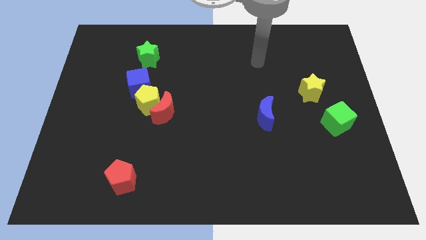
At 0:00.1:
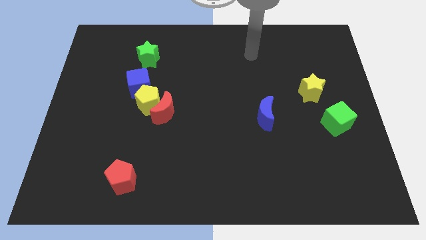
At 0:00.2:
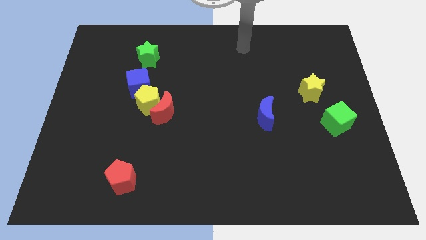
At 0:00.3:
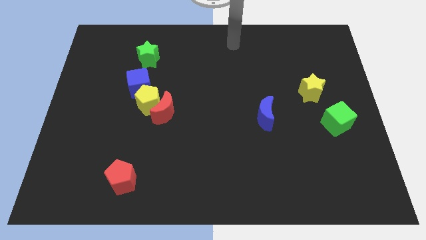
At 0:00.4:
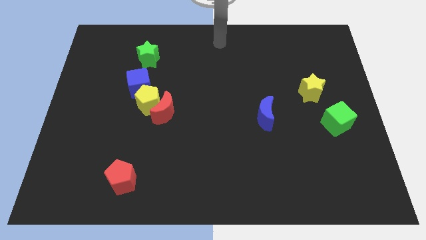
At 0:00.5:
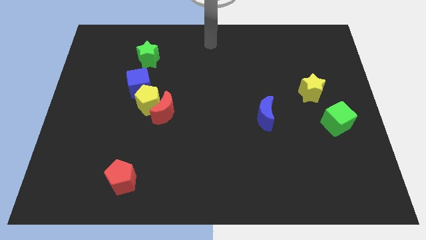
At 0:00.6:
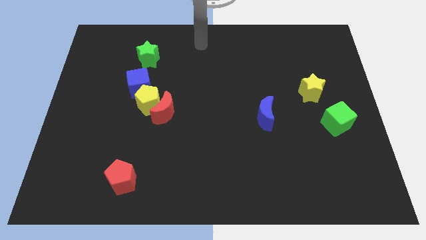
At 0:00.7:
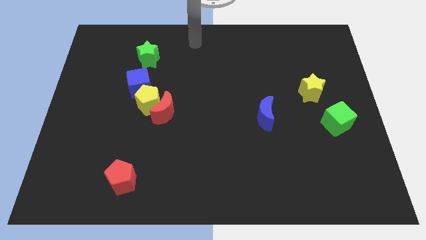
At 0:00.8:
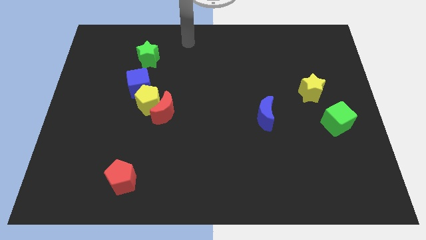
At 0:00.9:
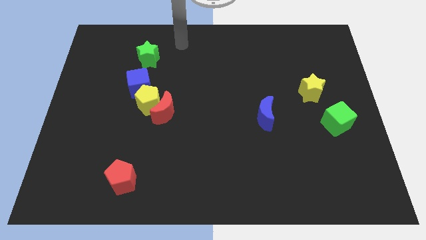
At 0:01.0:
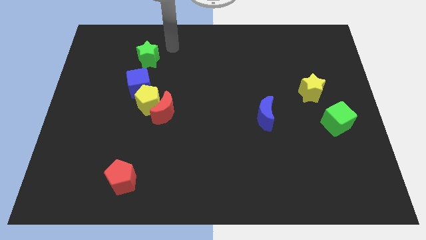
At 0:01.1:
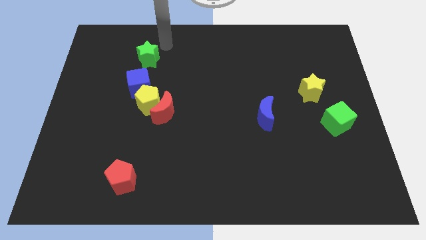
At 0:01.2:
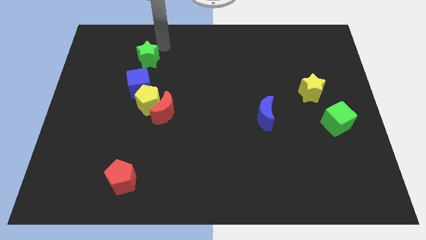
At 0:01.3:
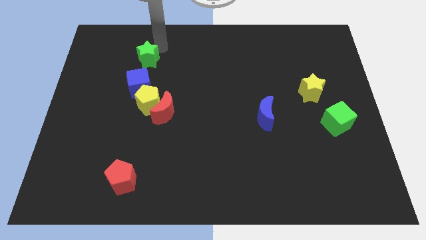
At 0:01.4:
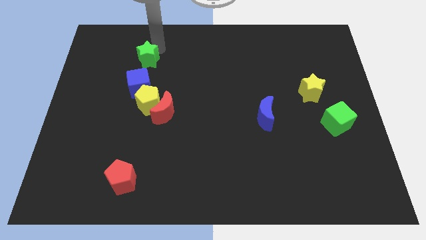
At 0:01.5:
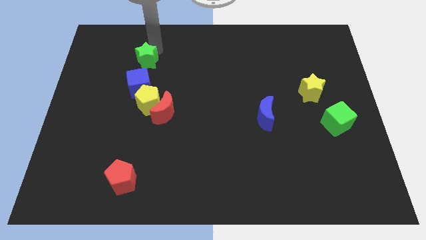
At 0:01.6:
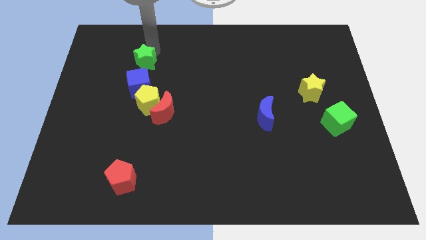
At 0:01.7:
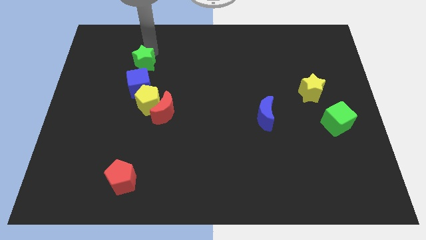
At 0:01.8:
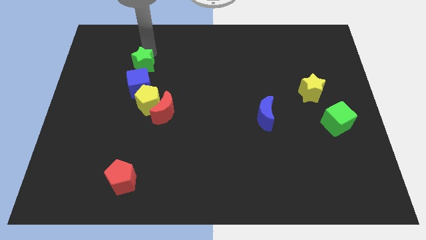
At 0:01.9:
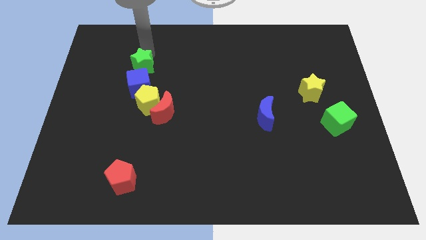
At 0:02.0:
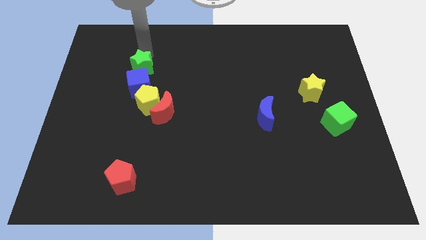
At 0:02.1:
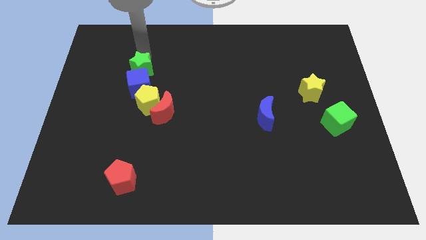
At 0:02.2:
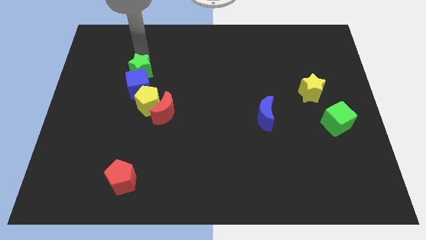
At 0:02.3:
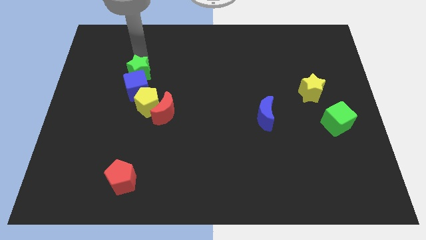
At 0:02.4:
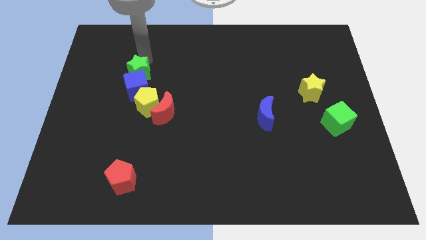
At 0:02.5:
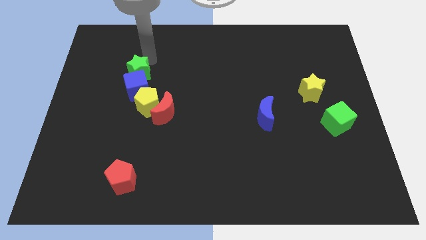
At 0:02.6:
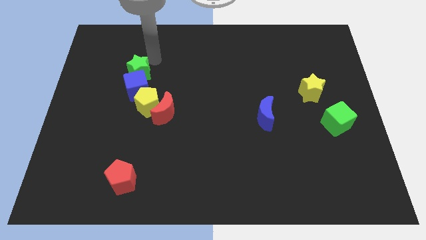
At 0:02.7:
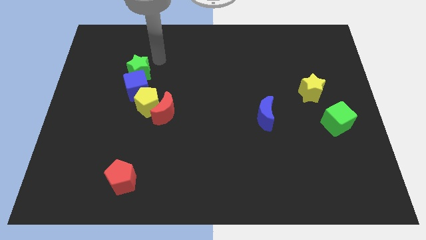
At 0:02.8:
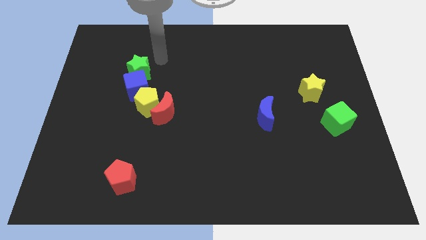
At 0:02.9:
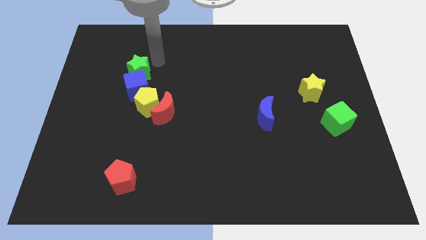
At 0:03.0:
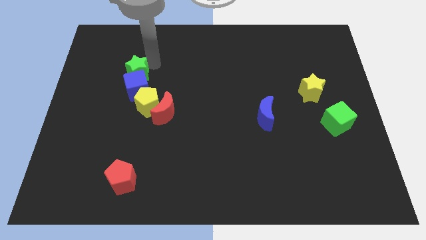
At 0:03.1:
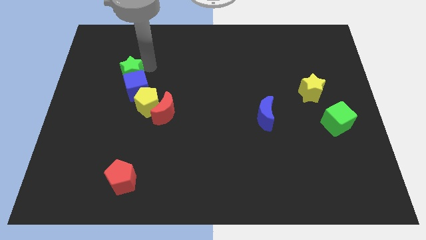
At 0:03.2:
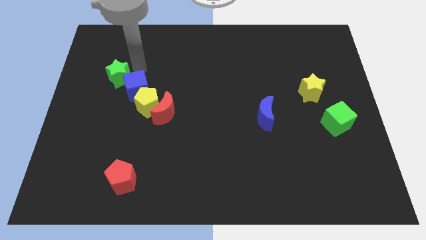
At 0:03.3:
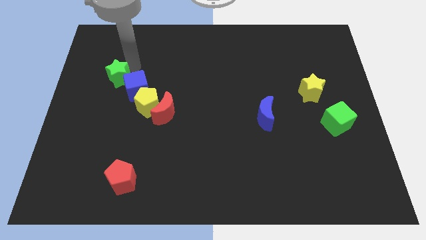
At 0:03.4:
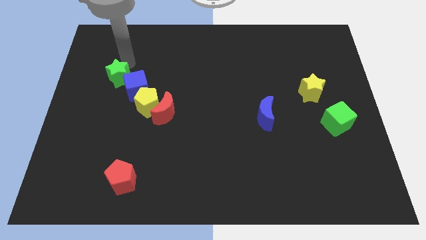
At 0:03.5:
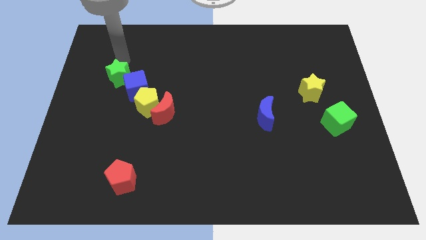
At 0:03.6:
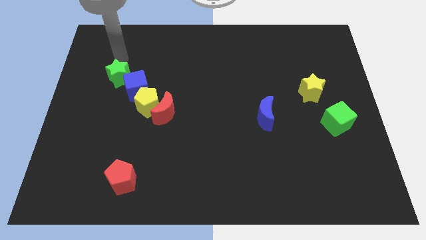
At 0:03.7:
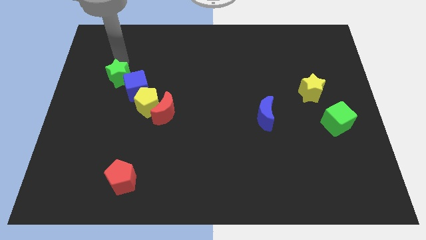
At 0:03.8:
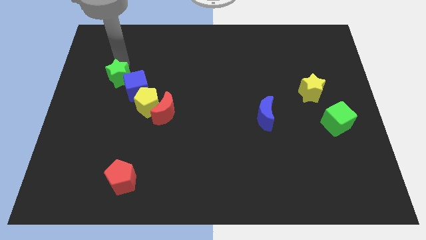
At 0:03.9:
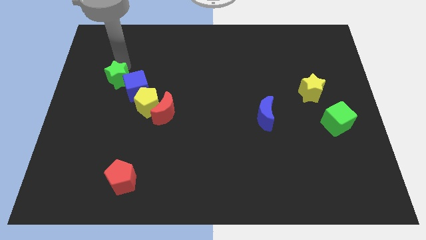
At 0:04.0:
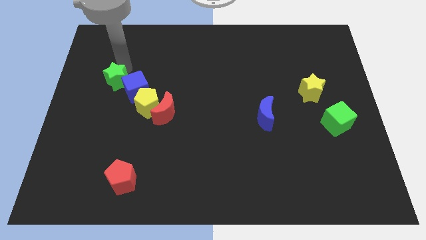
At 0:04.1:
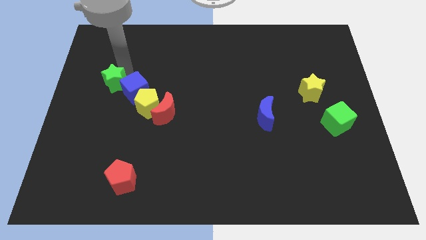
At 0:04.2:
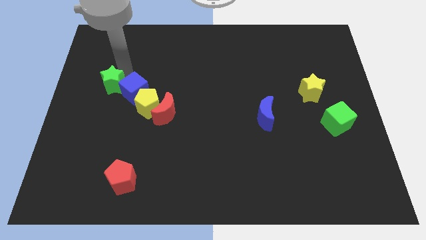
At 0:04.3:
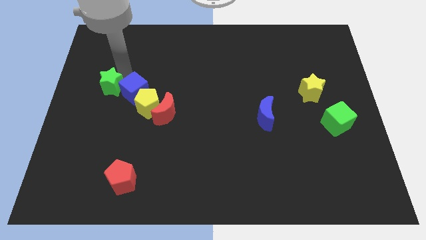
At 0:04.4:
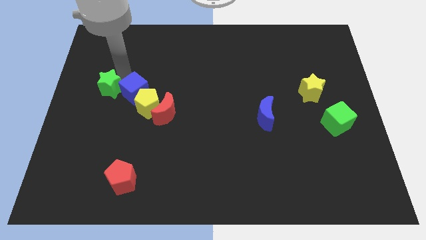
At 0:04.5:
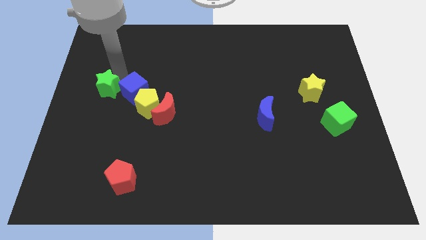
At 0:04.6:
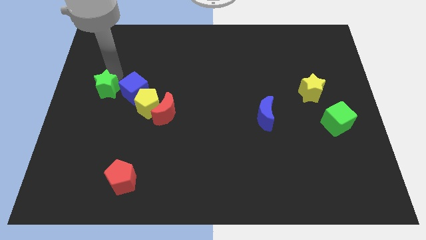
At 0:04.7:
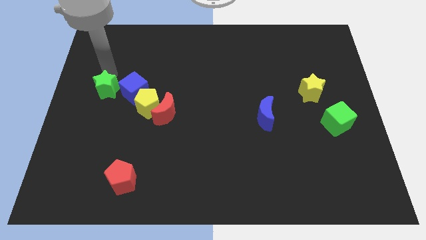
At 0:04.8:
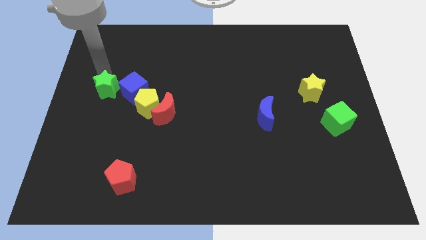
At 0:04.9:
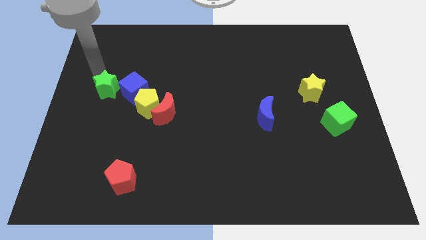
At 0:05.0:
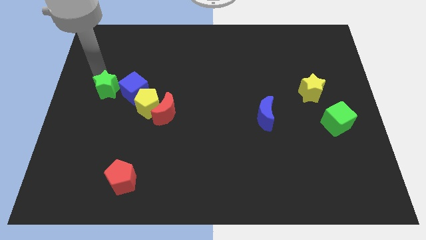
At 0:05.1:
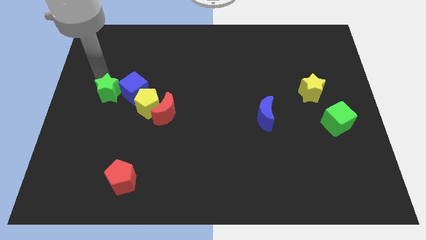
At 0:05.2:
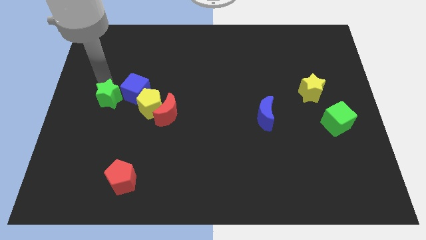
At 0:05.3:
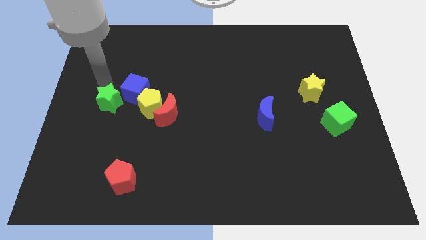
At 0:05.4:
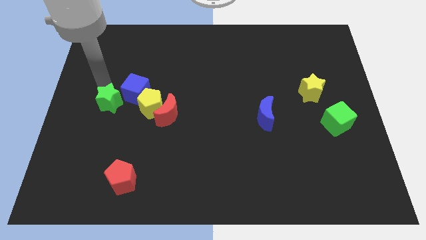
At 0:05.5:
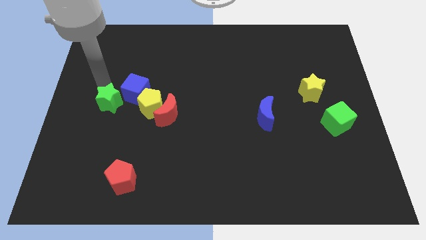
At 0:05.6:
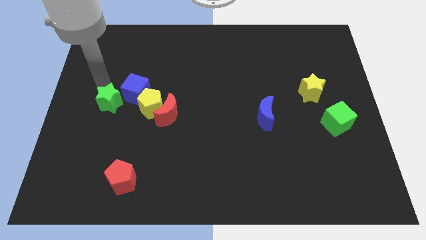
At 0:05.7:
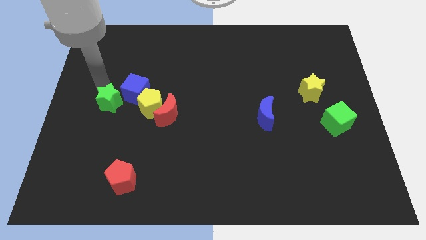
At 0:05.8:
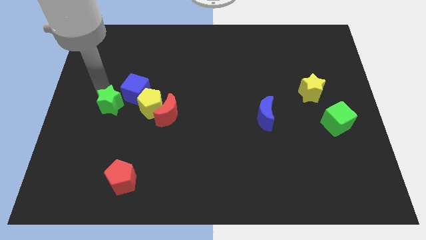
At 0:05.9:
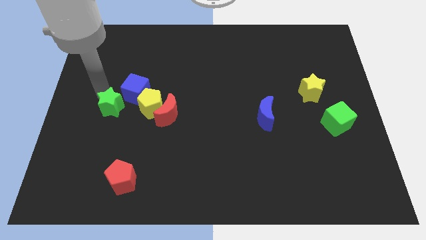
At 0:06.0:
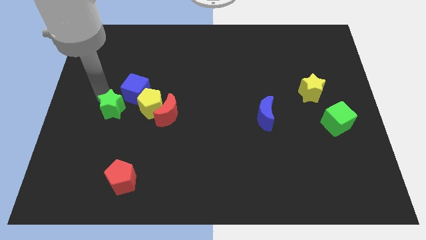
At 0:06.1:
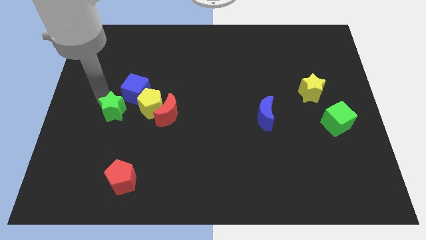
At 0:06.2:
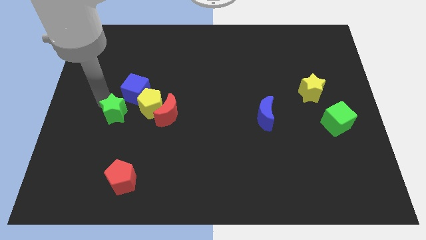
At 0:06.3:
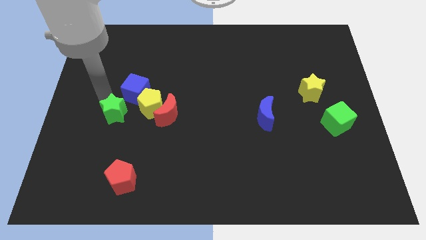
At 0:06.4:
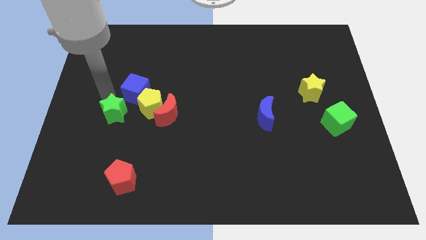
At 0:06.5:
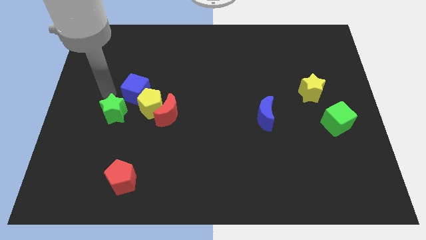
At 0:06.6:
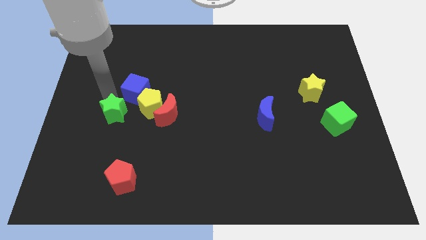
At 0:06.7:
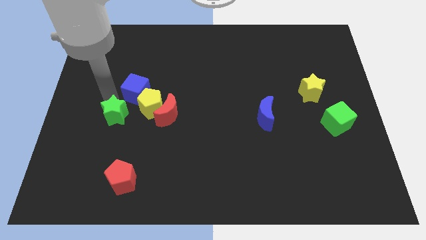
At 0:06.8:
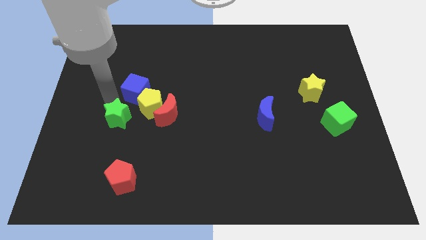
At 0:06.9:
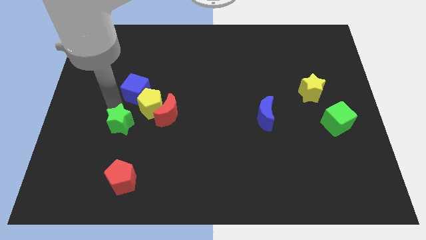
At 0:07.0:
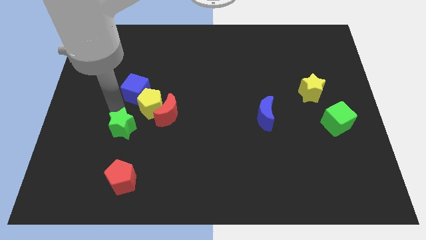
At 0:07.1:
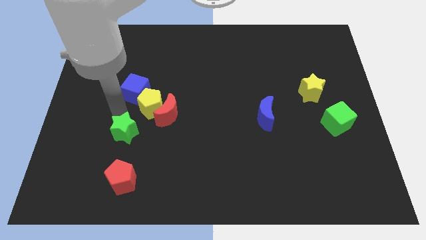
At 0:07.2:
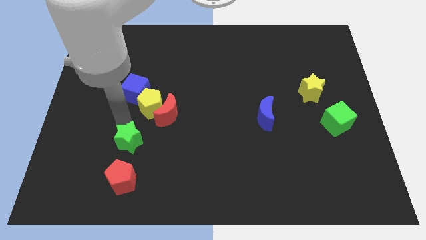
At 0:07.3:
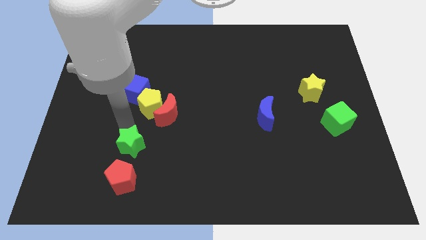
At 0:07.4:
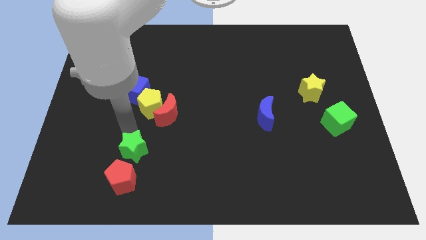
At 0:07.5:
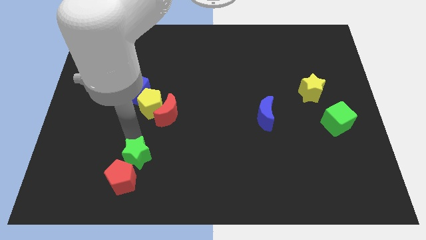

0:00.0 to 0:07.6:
slide the green star next to the red pentagon

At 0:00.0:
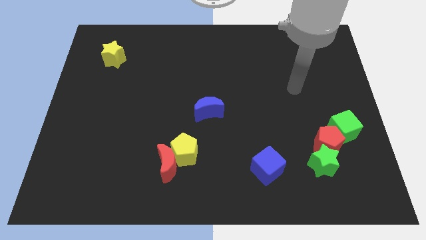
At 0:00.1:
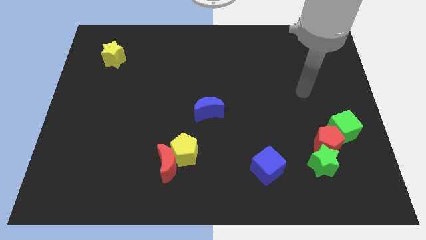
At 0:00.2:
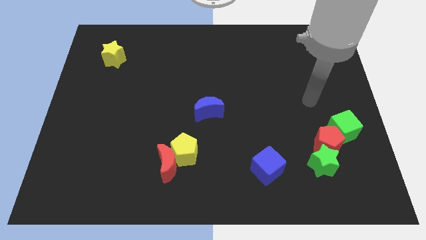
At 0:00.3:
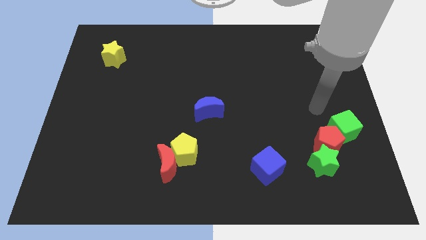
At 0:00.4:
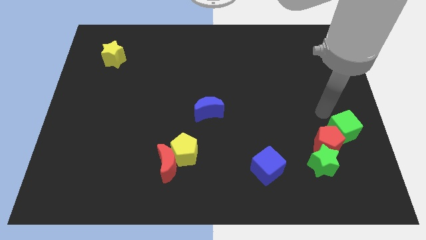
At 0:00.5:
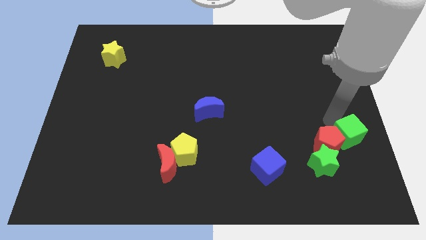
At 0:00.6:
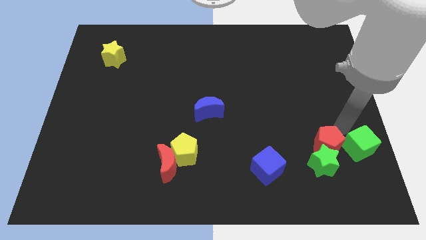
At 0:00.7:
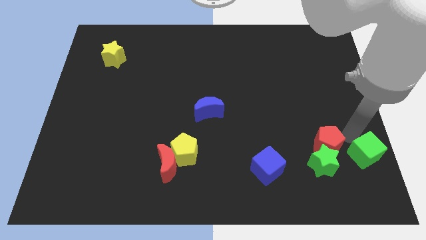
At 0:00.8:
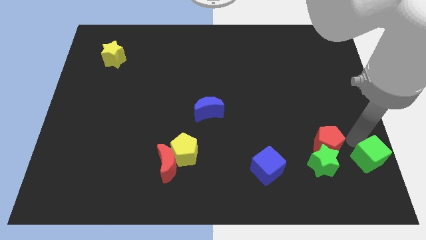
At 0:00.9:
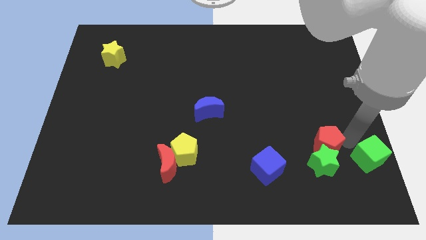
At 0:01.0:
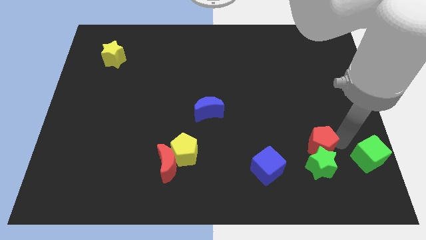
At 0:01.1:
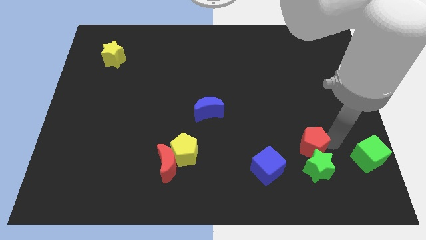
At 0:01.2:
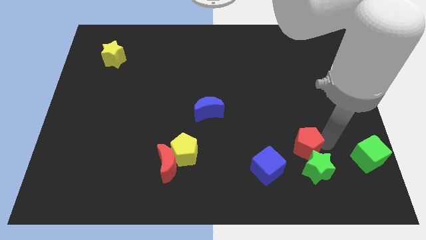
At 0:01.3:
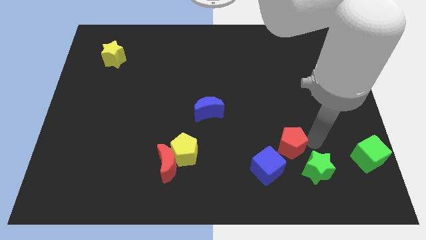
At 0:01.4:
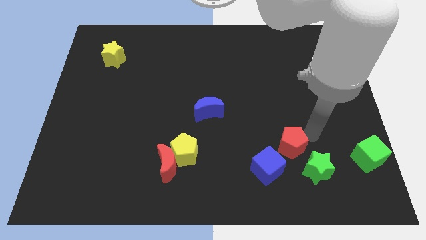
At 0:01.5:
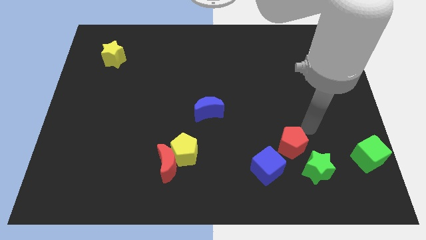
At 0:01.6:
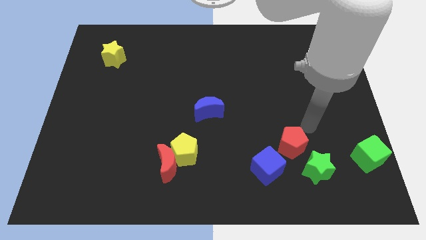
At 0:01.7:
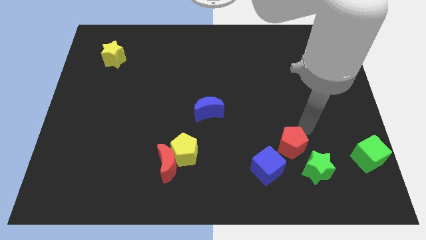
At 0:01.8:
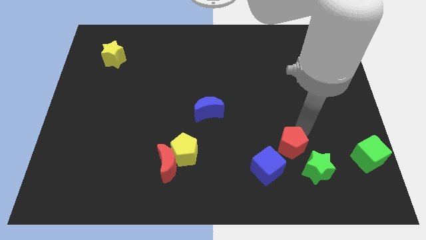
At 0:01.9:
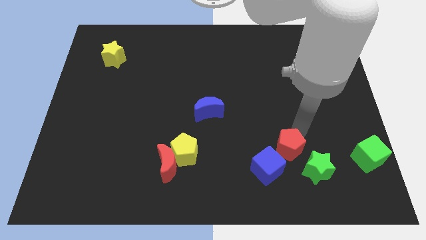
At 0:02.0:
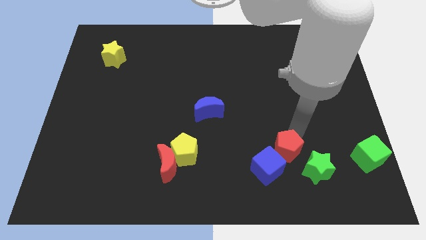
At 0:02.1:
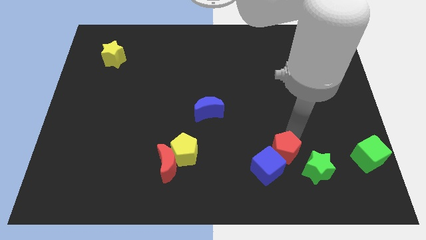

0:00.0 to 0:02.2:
put the red pentagon next to the blue cube
